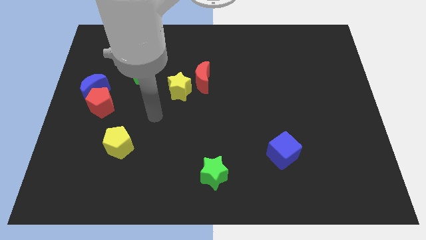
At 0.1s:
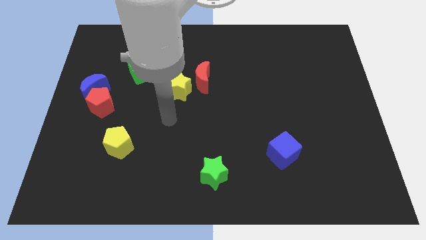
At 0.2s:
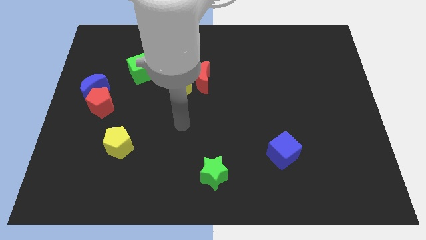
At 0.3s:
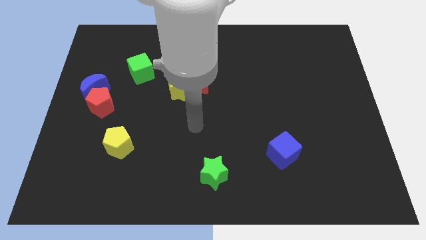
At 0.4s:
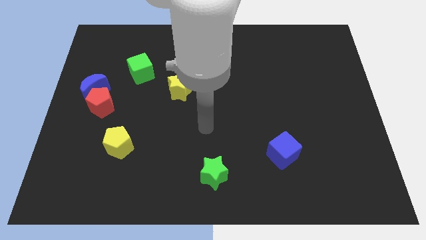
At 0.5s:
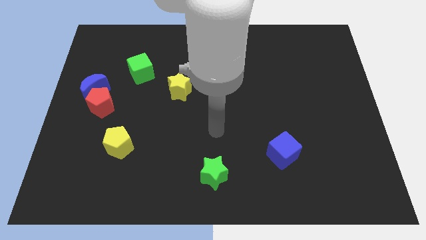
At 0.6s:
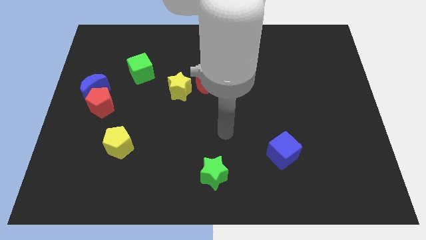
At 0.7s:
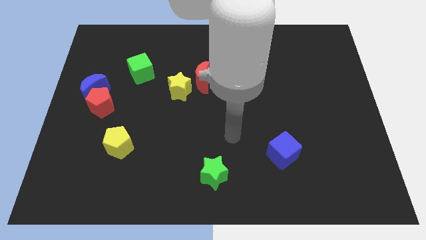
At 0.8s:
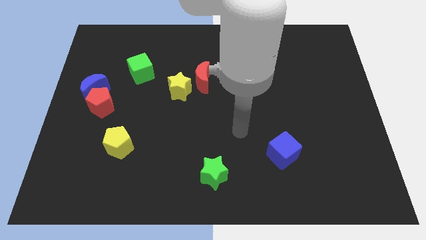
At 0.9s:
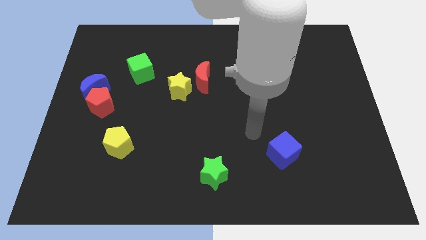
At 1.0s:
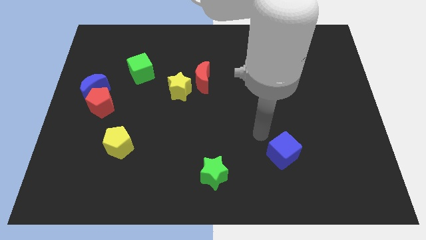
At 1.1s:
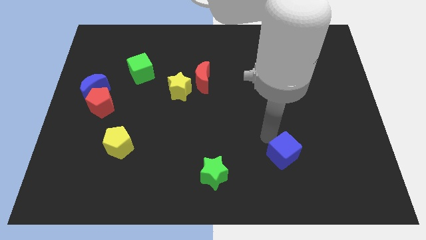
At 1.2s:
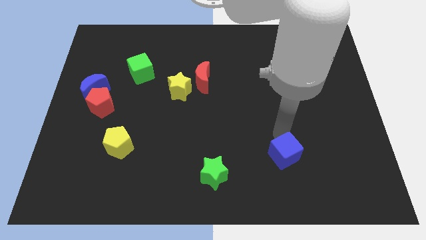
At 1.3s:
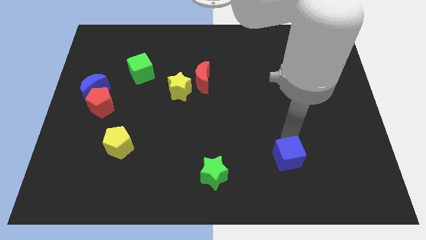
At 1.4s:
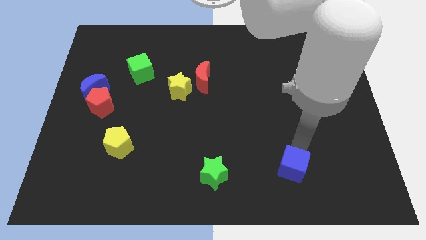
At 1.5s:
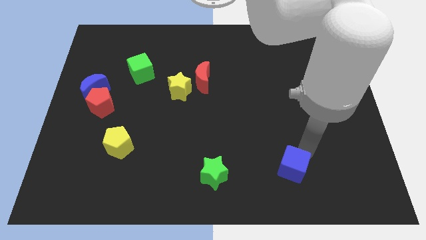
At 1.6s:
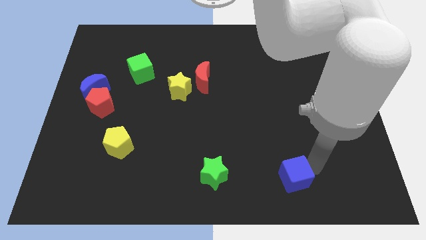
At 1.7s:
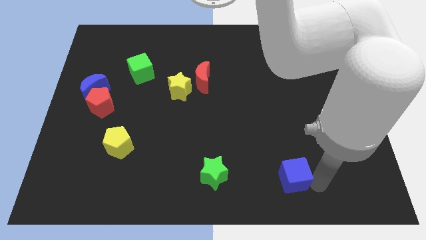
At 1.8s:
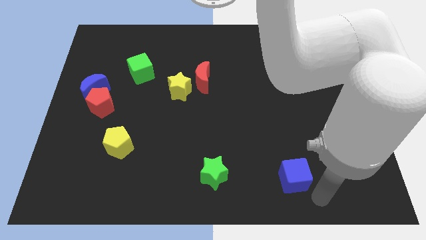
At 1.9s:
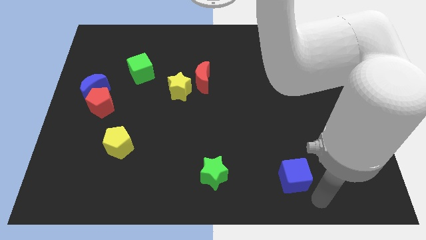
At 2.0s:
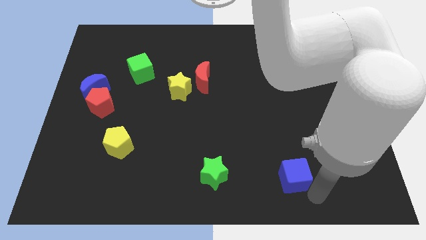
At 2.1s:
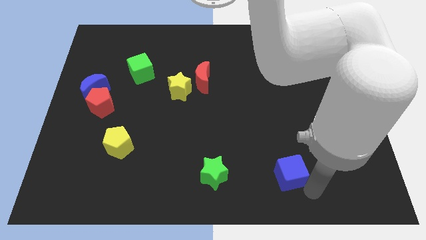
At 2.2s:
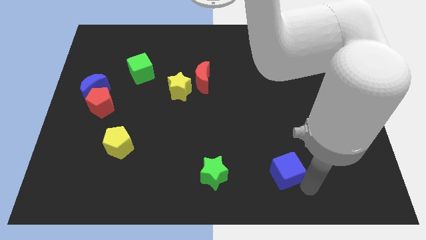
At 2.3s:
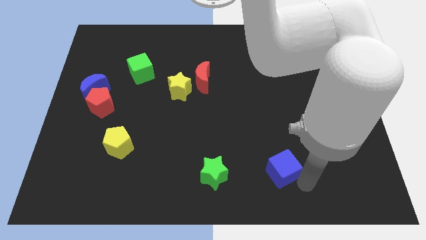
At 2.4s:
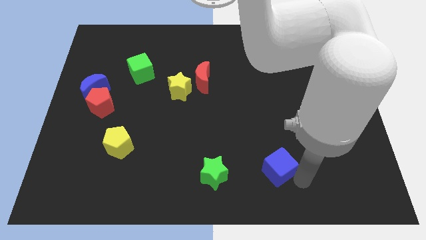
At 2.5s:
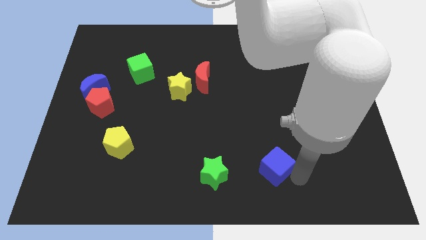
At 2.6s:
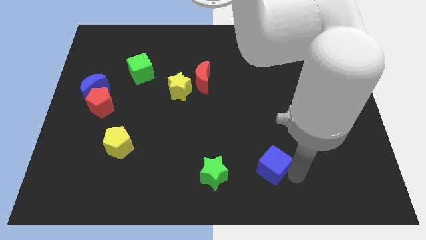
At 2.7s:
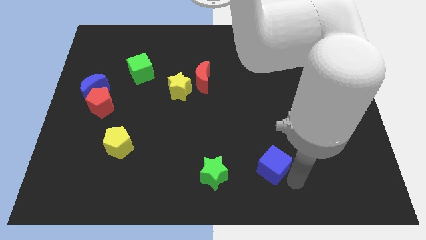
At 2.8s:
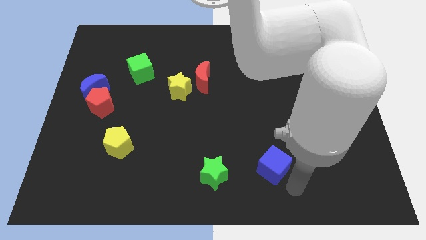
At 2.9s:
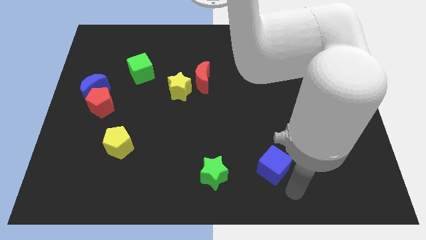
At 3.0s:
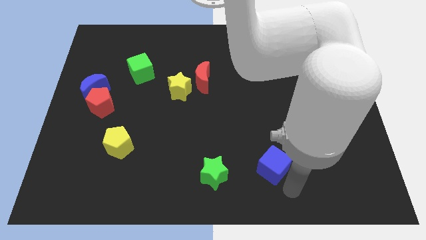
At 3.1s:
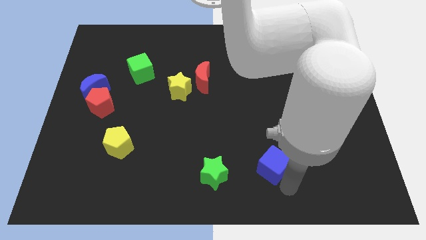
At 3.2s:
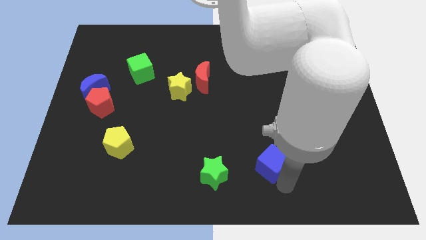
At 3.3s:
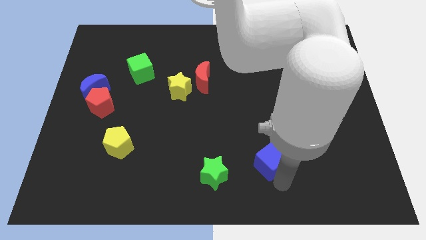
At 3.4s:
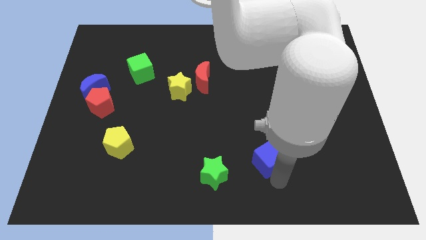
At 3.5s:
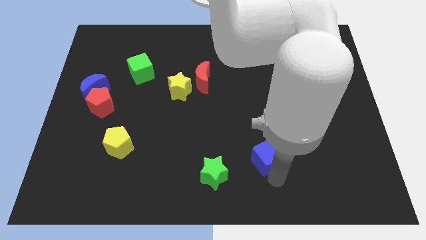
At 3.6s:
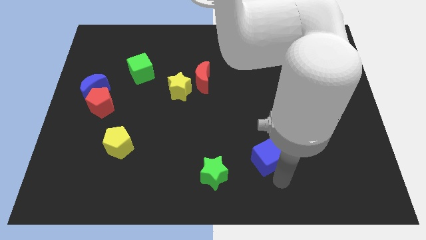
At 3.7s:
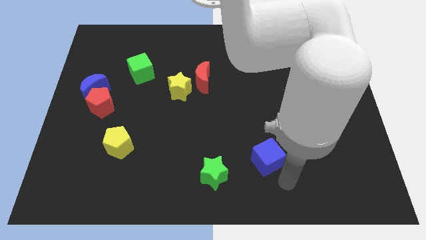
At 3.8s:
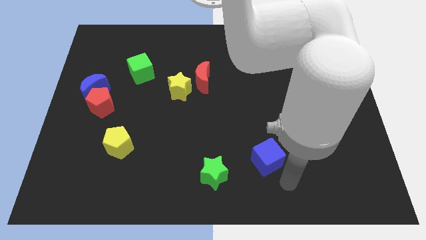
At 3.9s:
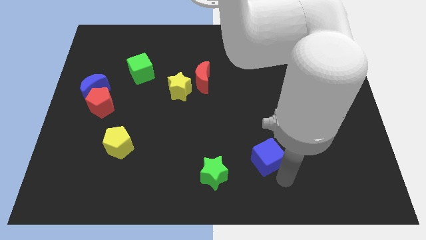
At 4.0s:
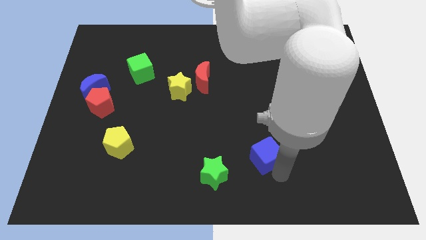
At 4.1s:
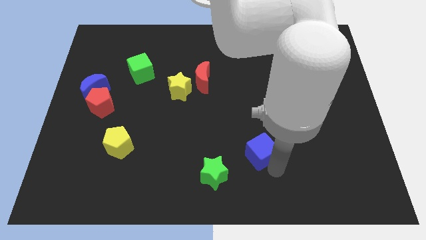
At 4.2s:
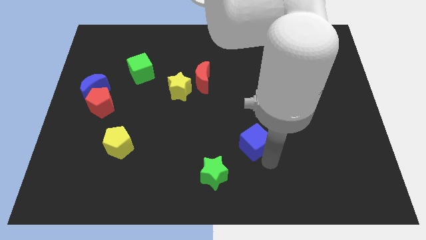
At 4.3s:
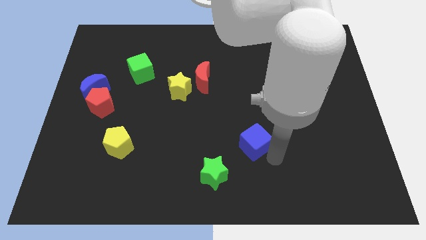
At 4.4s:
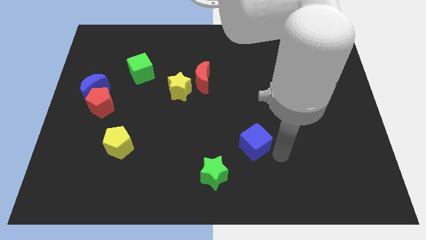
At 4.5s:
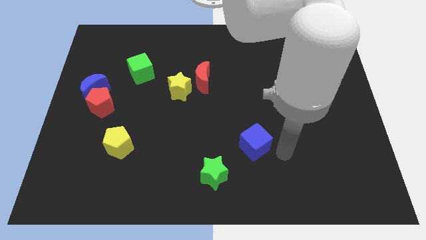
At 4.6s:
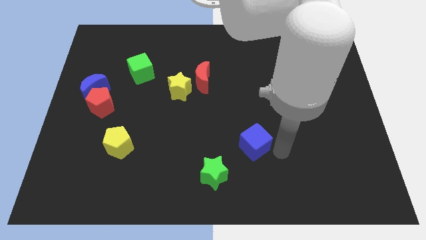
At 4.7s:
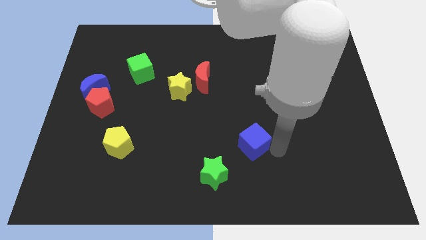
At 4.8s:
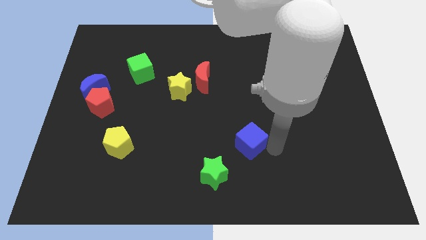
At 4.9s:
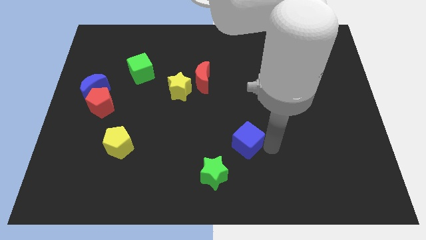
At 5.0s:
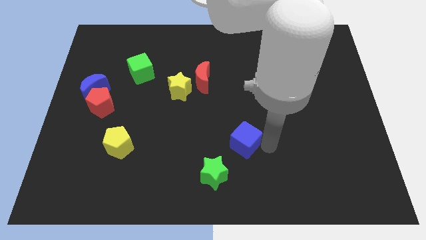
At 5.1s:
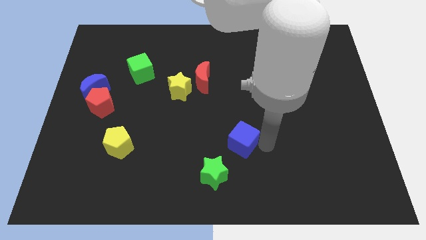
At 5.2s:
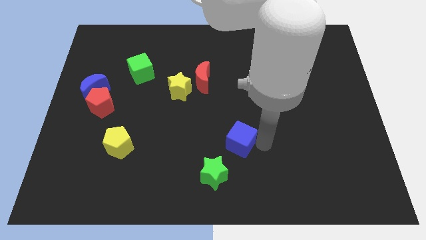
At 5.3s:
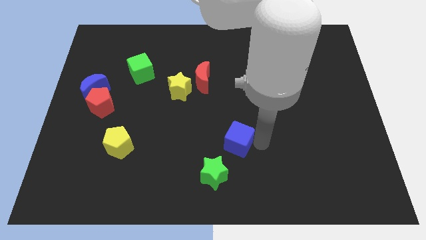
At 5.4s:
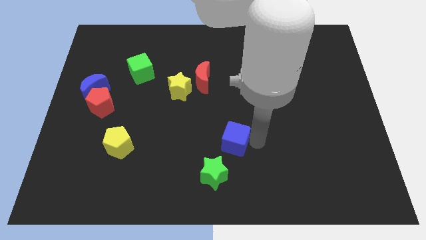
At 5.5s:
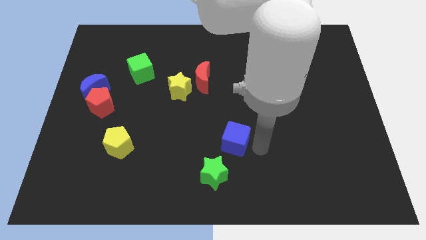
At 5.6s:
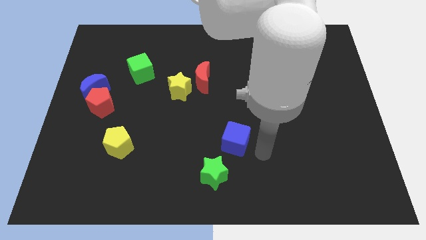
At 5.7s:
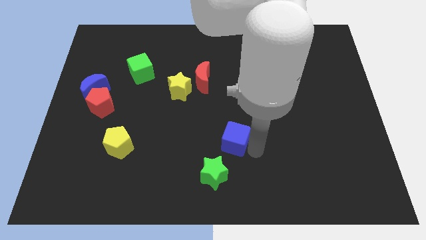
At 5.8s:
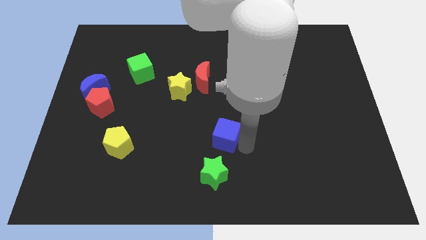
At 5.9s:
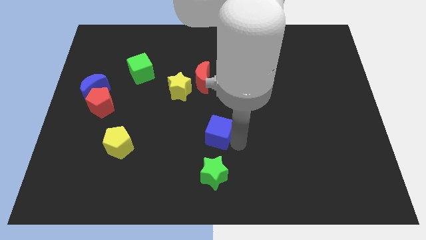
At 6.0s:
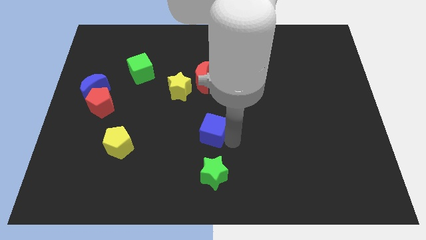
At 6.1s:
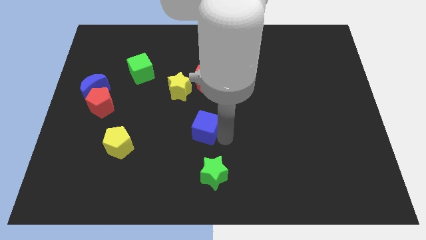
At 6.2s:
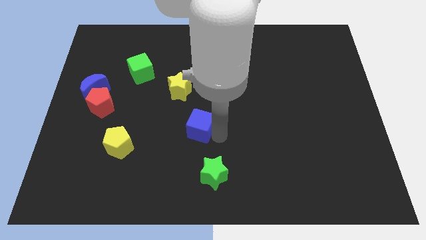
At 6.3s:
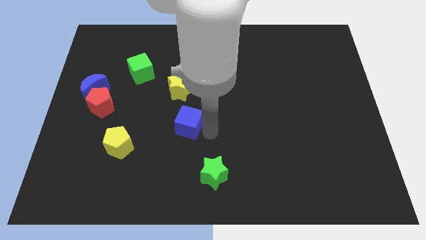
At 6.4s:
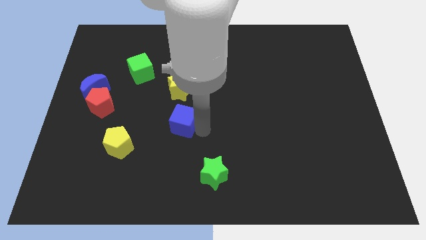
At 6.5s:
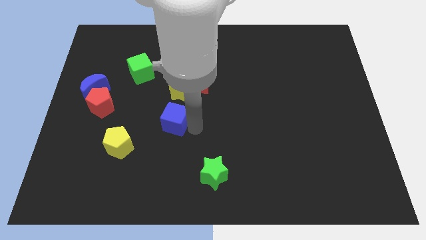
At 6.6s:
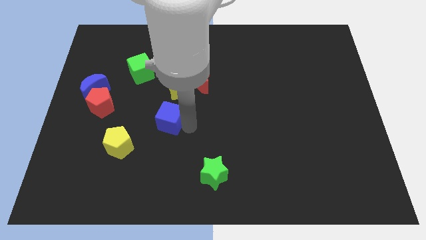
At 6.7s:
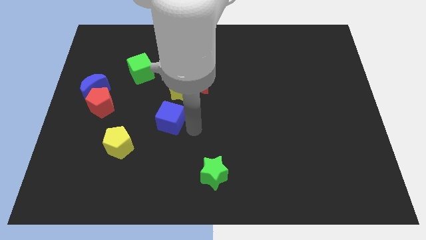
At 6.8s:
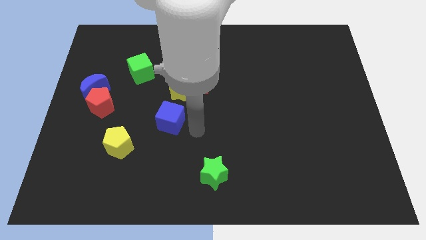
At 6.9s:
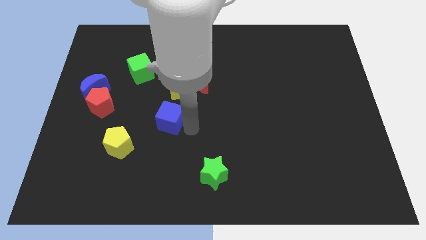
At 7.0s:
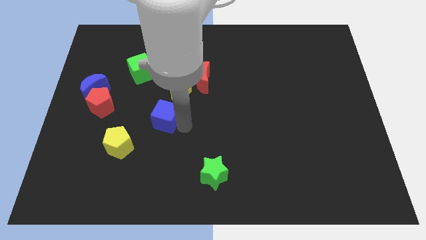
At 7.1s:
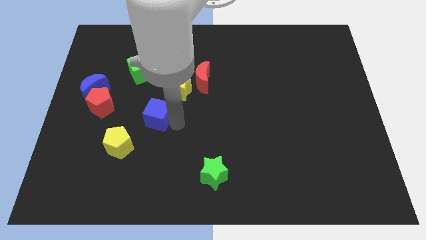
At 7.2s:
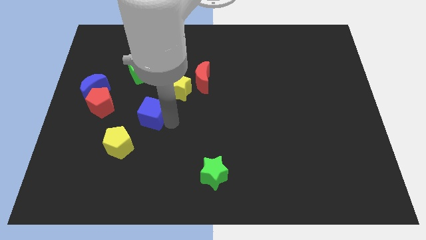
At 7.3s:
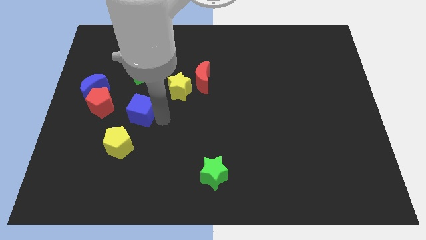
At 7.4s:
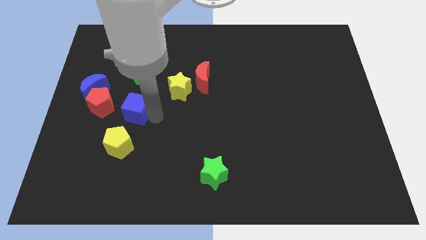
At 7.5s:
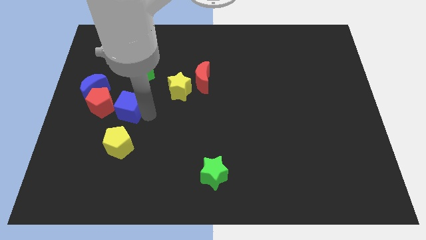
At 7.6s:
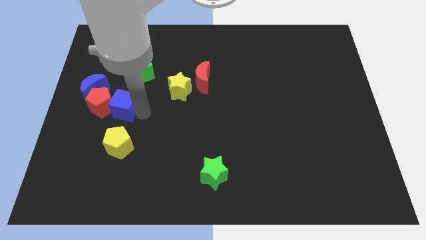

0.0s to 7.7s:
move the blue cube to the red pentagon
